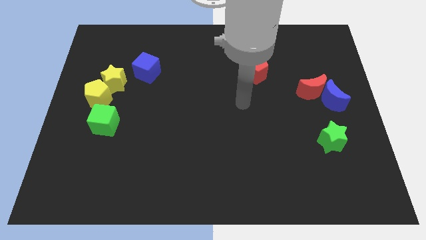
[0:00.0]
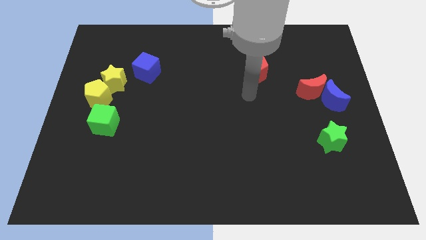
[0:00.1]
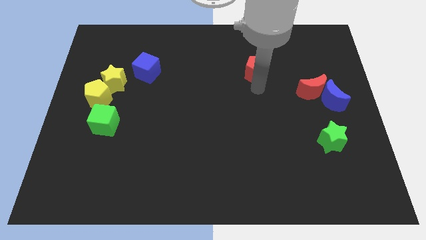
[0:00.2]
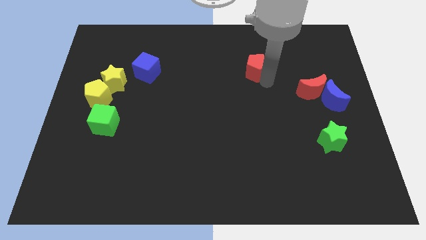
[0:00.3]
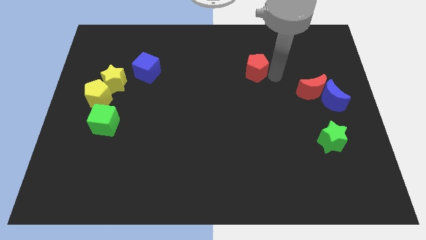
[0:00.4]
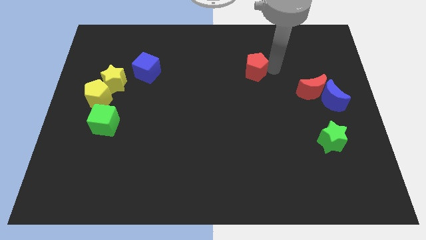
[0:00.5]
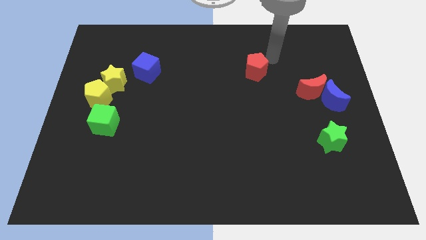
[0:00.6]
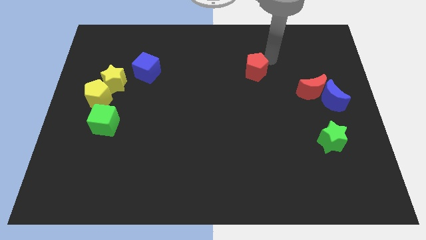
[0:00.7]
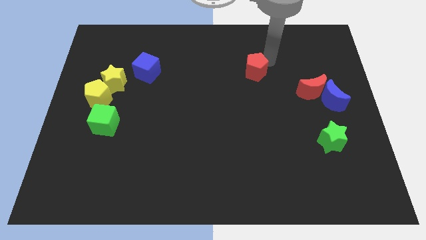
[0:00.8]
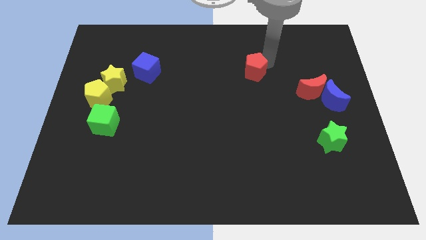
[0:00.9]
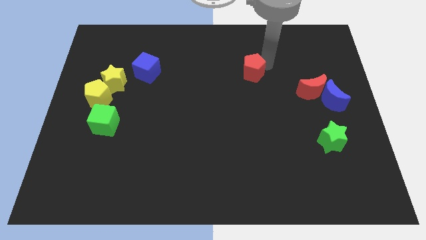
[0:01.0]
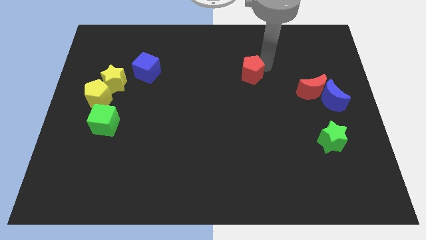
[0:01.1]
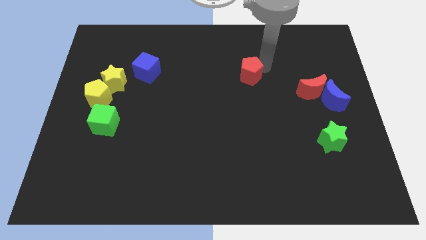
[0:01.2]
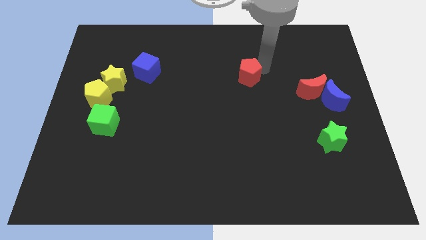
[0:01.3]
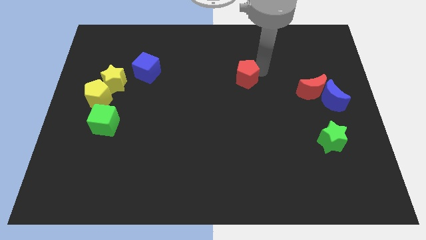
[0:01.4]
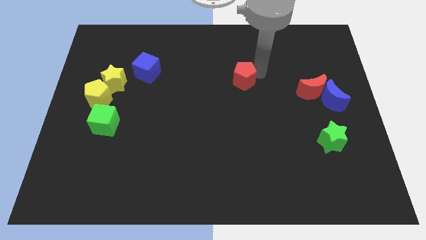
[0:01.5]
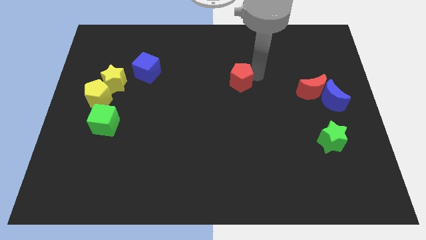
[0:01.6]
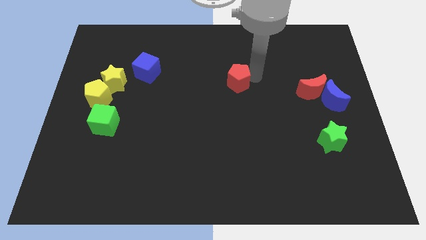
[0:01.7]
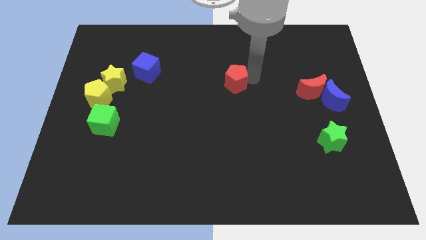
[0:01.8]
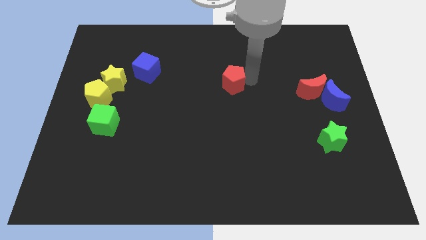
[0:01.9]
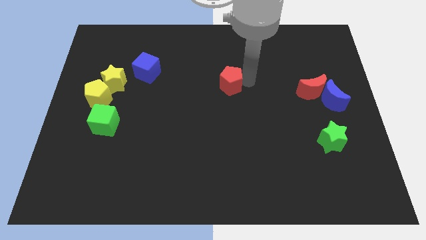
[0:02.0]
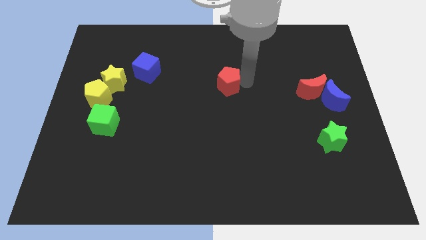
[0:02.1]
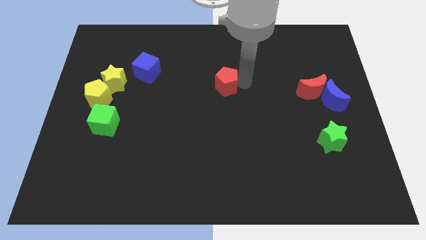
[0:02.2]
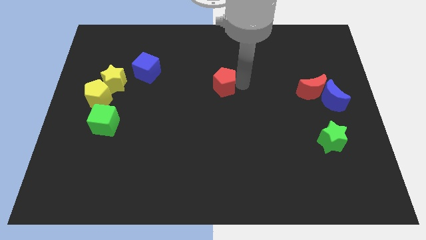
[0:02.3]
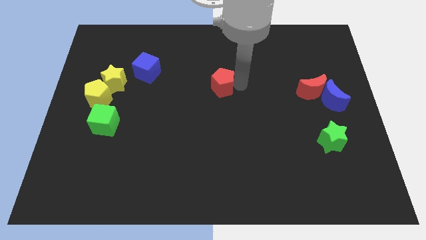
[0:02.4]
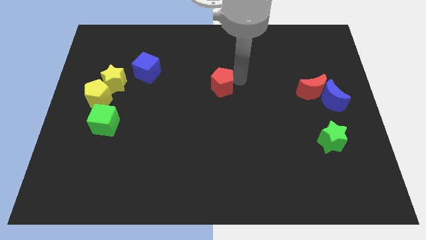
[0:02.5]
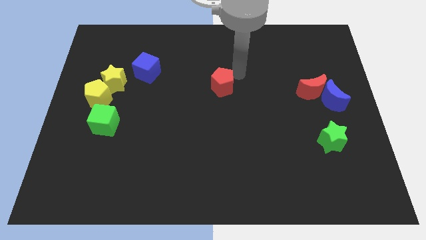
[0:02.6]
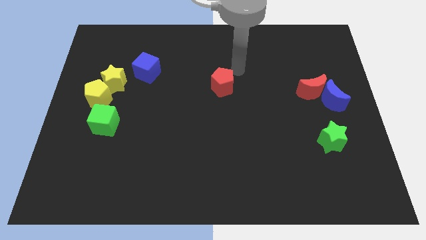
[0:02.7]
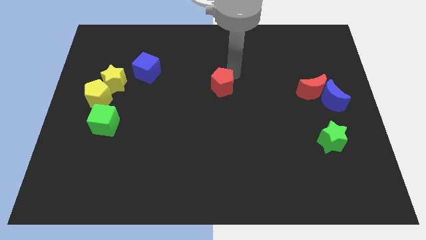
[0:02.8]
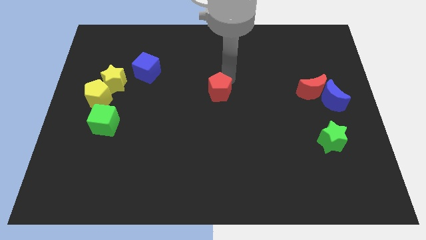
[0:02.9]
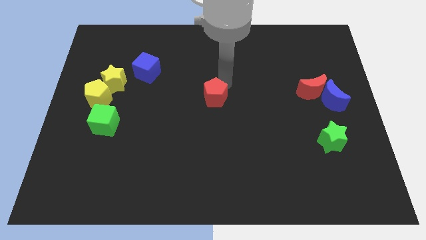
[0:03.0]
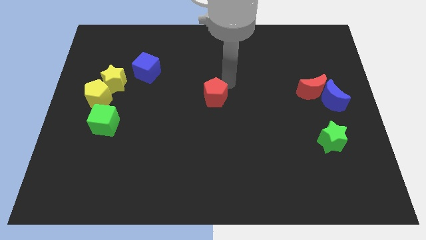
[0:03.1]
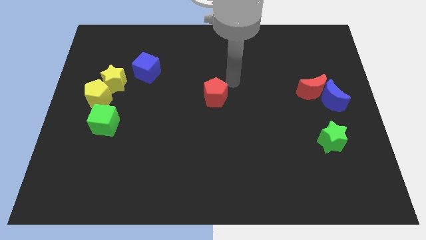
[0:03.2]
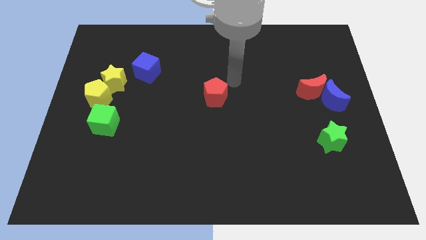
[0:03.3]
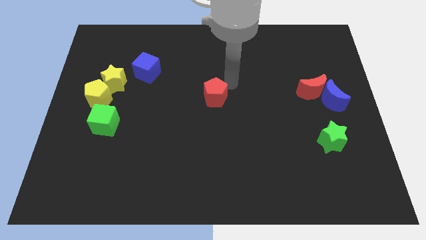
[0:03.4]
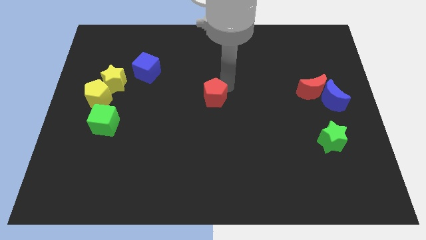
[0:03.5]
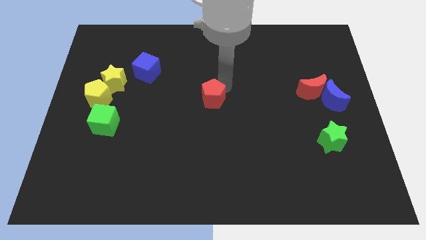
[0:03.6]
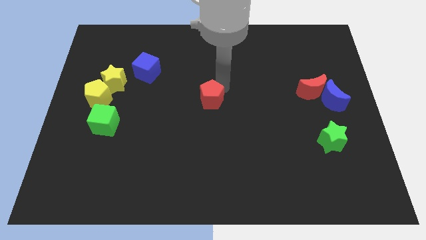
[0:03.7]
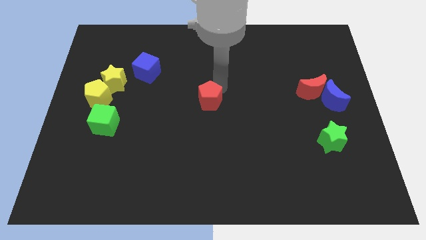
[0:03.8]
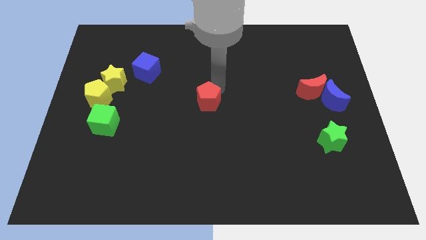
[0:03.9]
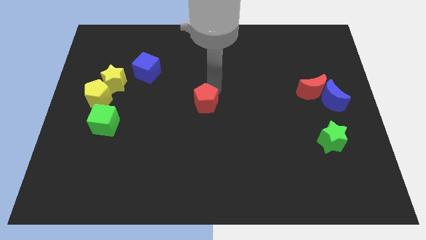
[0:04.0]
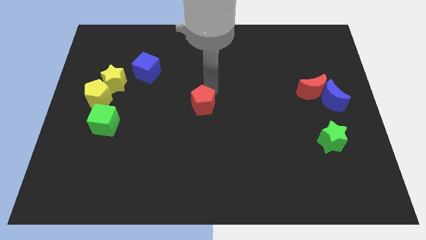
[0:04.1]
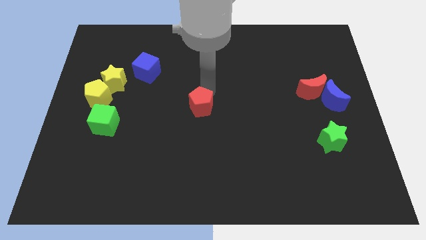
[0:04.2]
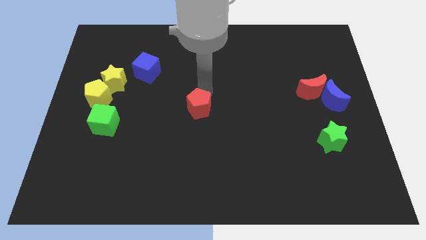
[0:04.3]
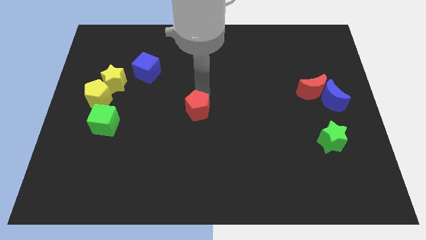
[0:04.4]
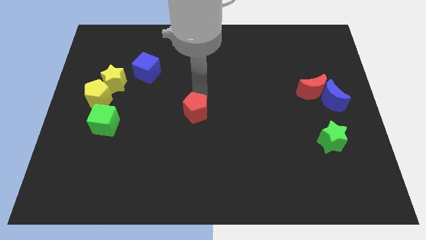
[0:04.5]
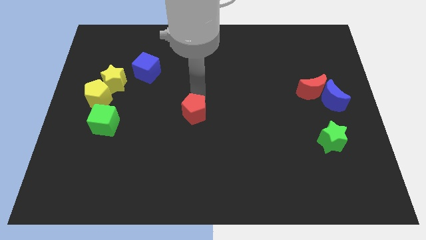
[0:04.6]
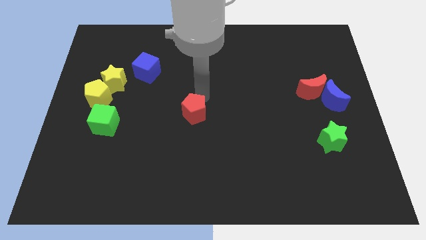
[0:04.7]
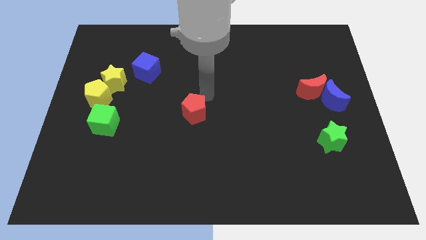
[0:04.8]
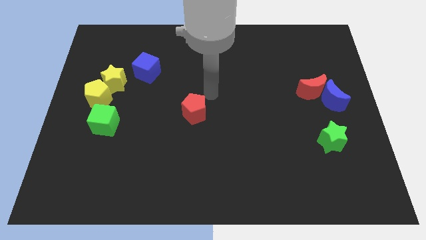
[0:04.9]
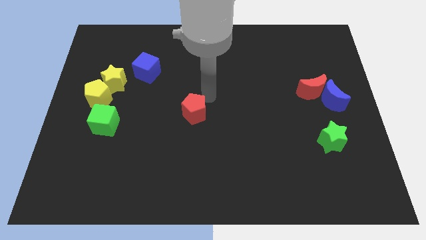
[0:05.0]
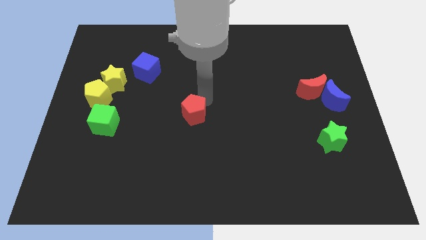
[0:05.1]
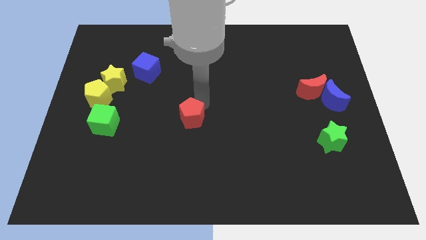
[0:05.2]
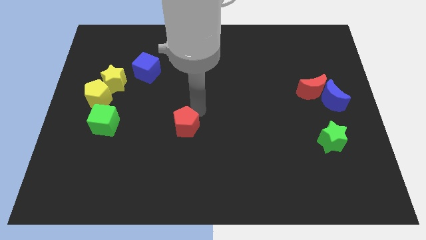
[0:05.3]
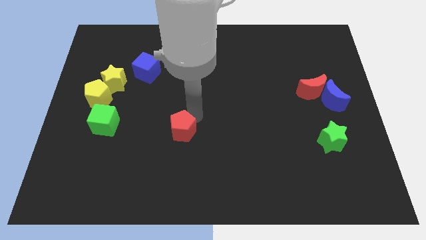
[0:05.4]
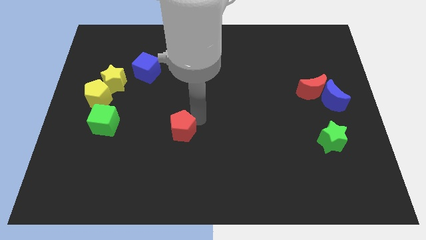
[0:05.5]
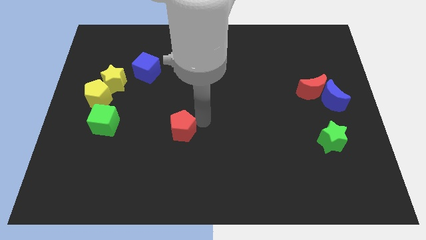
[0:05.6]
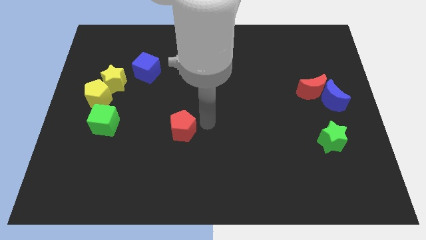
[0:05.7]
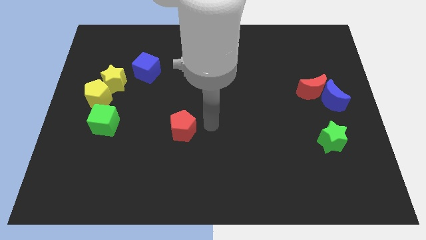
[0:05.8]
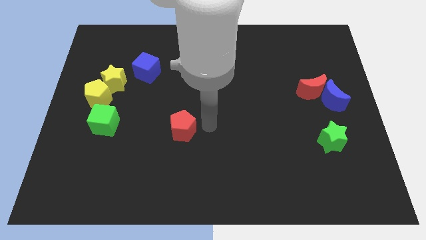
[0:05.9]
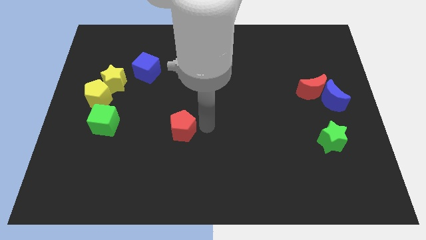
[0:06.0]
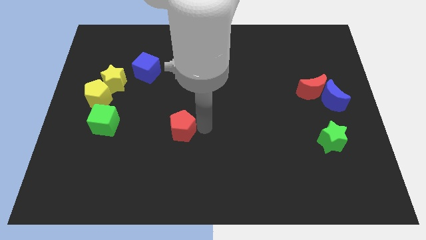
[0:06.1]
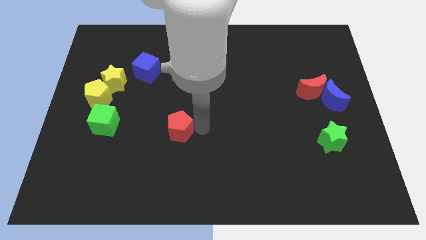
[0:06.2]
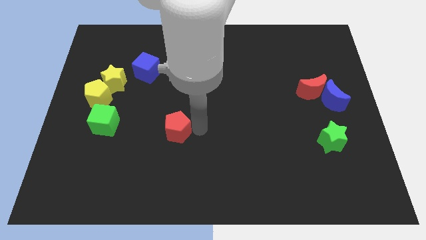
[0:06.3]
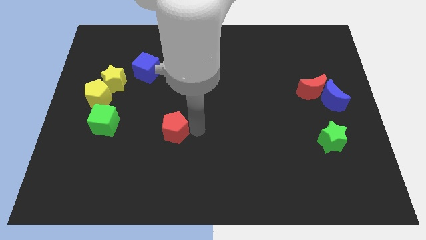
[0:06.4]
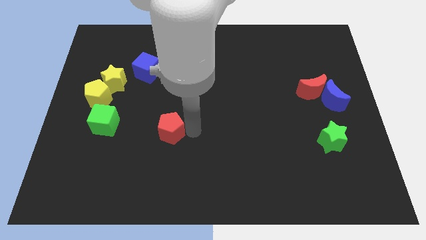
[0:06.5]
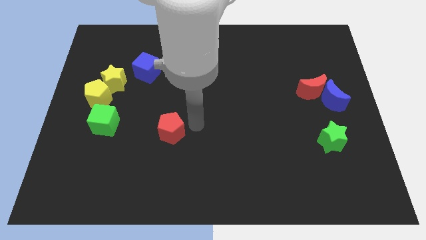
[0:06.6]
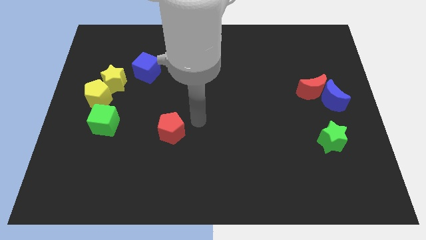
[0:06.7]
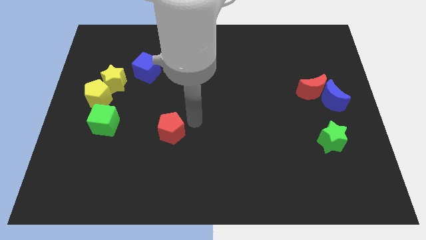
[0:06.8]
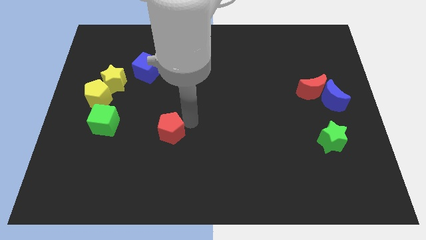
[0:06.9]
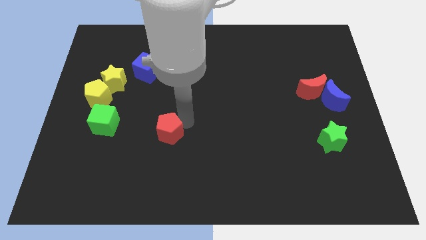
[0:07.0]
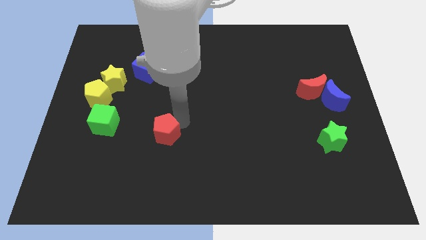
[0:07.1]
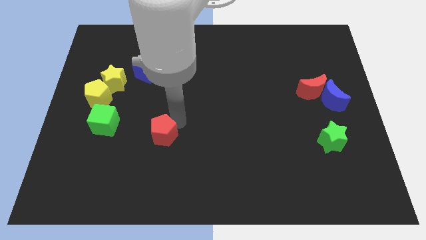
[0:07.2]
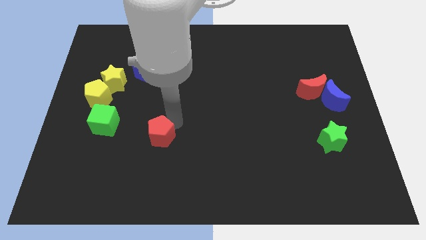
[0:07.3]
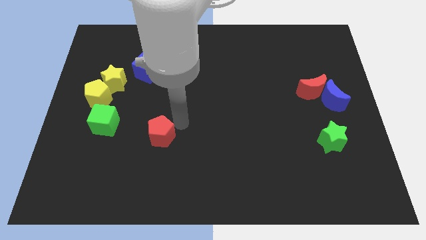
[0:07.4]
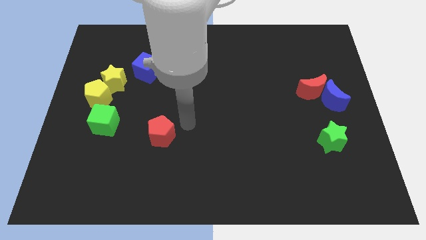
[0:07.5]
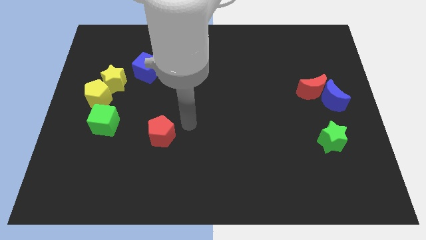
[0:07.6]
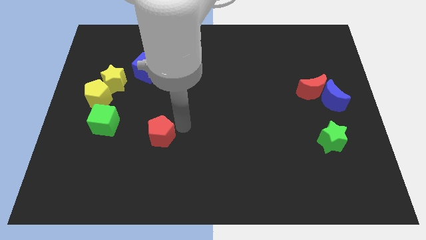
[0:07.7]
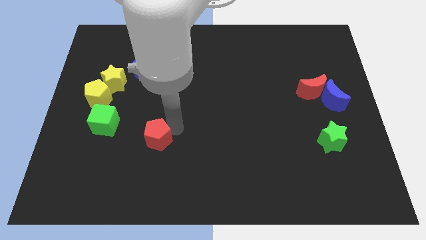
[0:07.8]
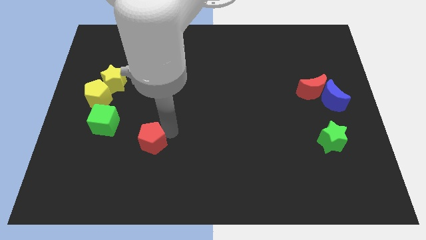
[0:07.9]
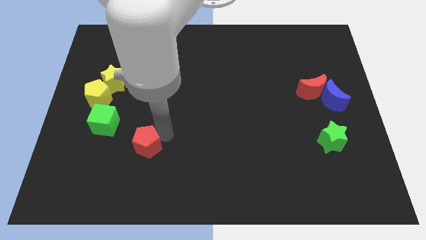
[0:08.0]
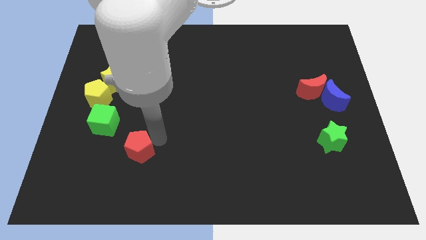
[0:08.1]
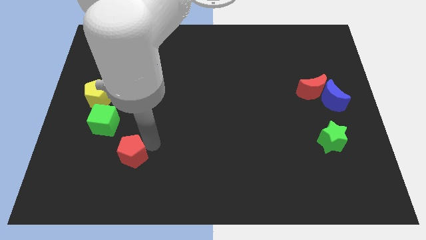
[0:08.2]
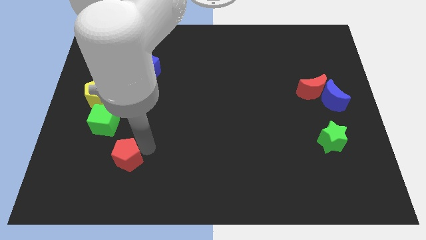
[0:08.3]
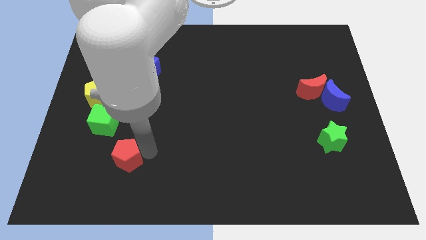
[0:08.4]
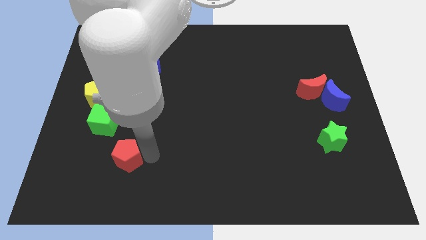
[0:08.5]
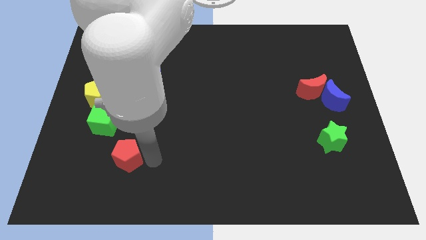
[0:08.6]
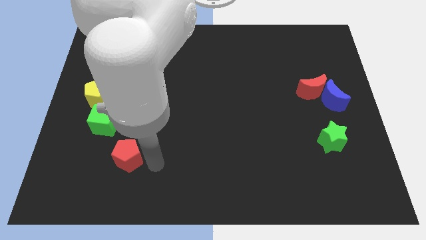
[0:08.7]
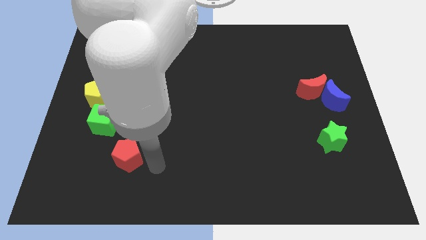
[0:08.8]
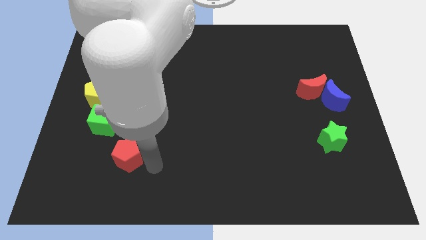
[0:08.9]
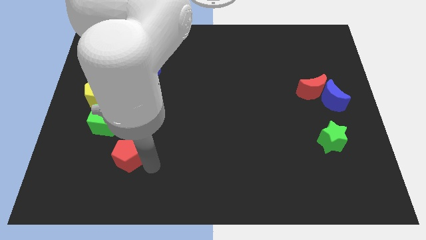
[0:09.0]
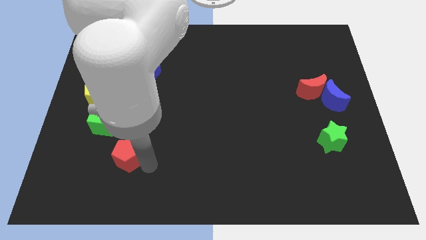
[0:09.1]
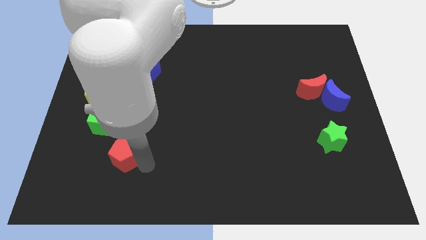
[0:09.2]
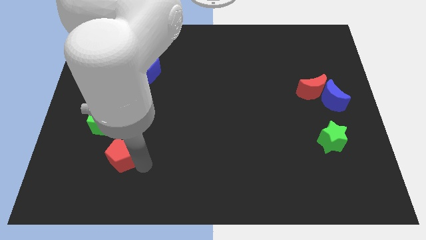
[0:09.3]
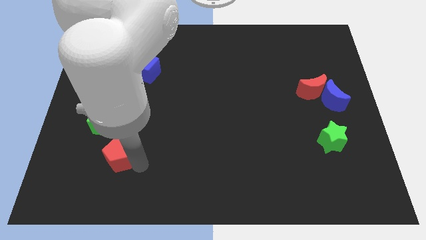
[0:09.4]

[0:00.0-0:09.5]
move the red pentagon to the bottom side of the green cube
